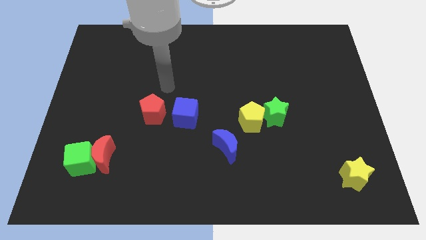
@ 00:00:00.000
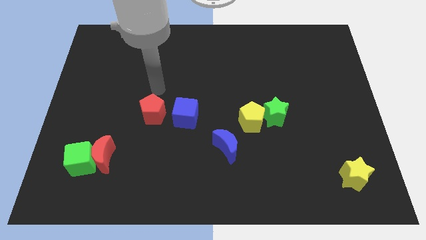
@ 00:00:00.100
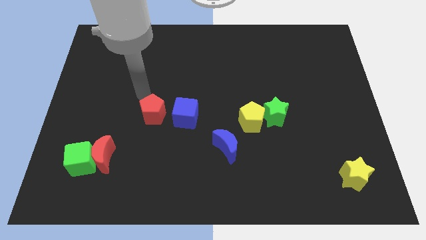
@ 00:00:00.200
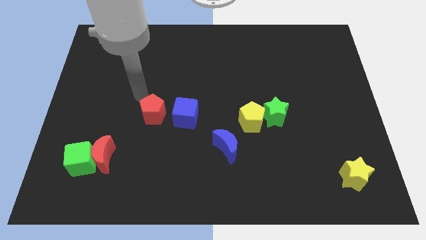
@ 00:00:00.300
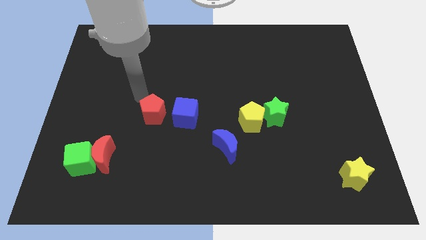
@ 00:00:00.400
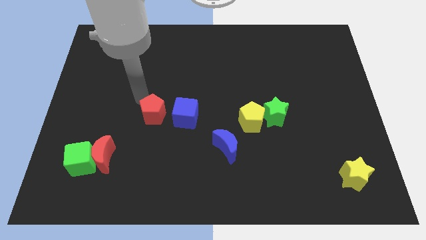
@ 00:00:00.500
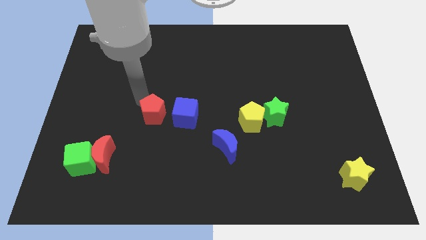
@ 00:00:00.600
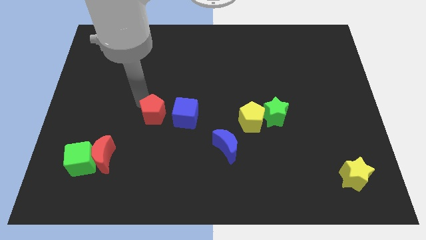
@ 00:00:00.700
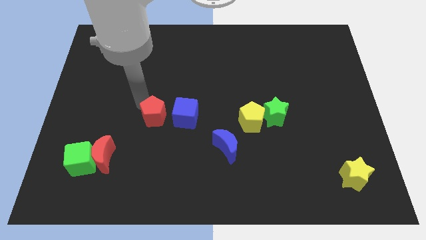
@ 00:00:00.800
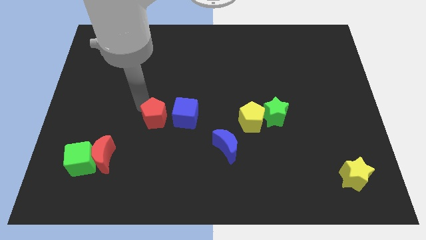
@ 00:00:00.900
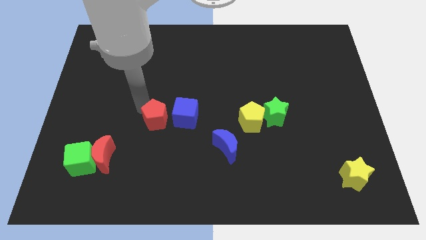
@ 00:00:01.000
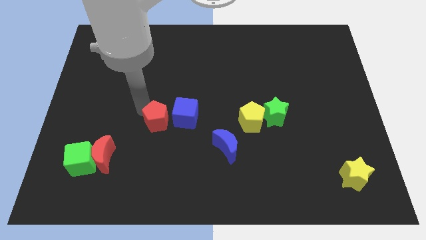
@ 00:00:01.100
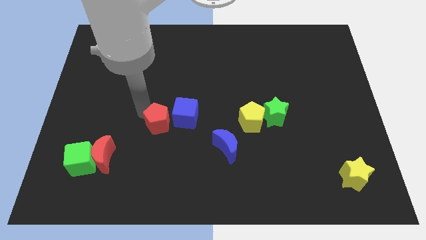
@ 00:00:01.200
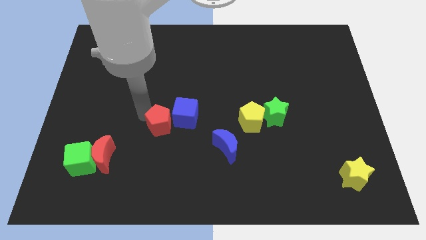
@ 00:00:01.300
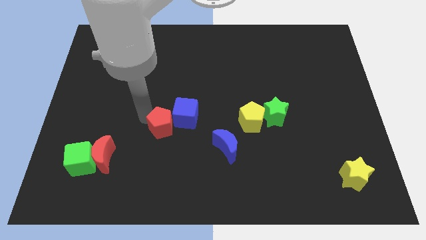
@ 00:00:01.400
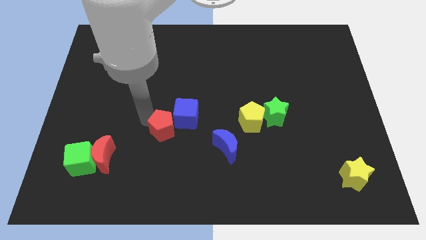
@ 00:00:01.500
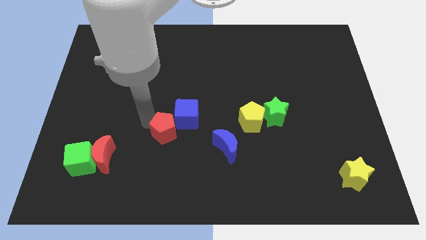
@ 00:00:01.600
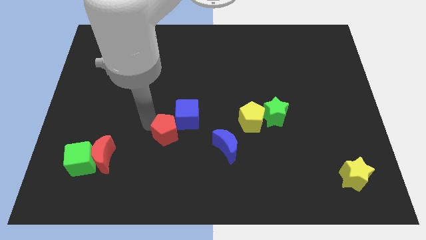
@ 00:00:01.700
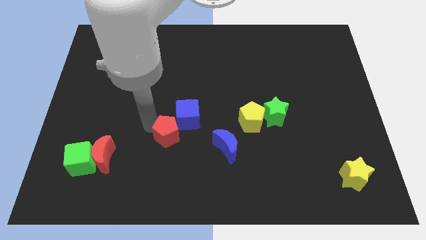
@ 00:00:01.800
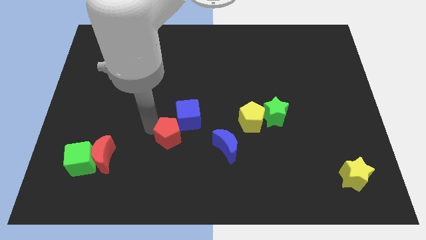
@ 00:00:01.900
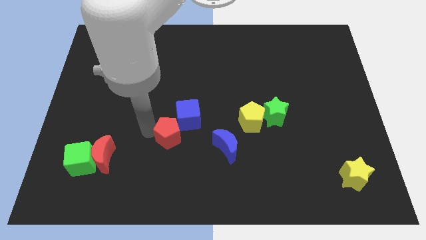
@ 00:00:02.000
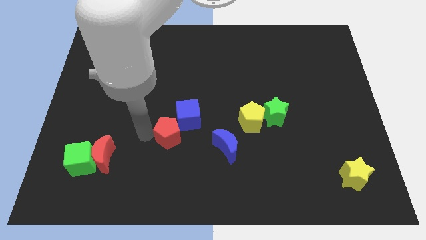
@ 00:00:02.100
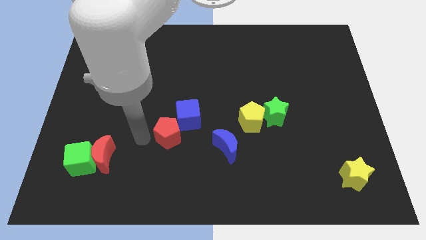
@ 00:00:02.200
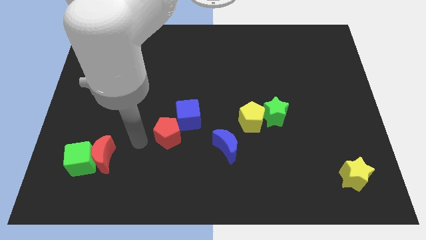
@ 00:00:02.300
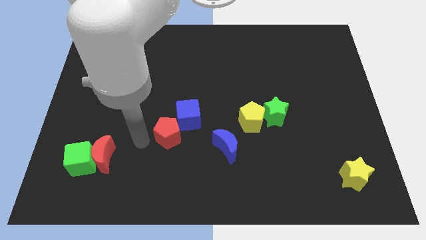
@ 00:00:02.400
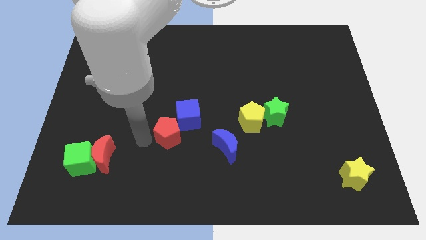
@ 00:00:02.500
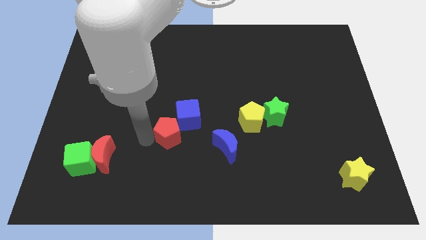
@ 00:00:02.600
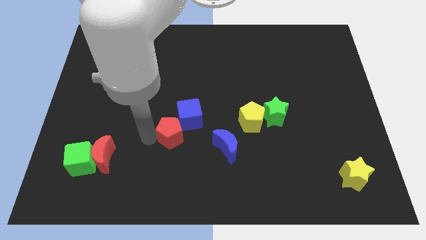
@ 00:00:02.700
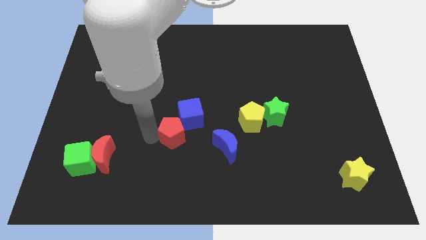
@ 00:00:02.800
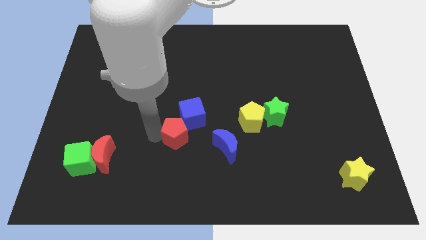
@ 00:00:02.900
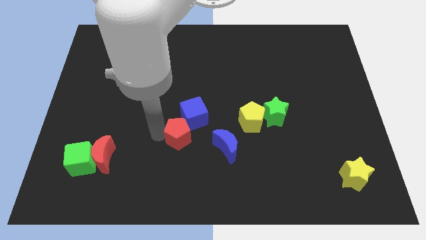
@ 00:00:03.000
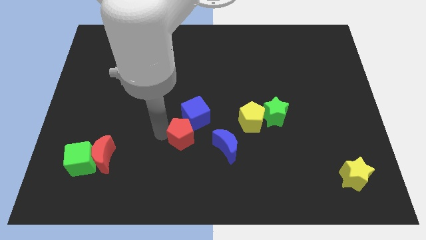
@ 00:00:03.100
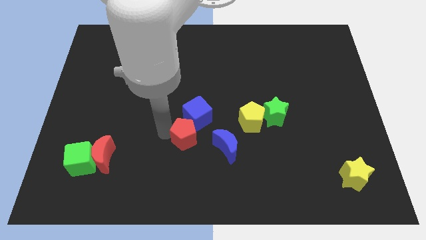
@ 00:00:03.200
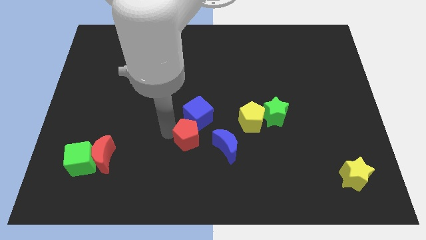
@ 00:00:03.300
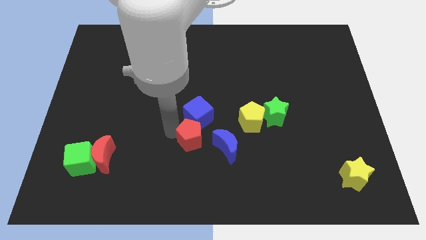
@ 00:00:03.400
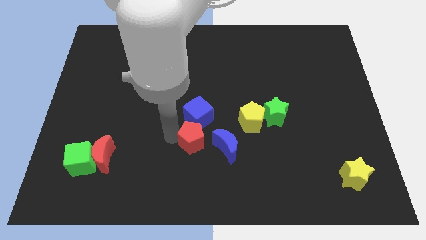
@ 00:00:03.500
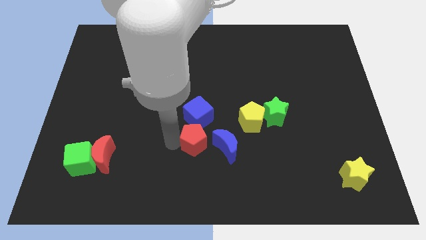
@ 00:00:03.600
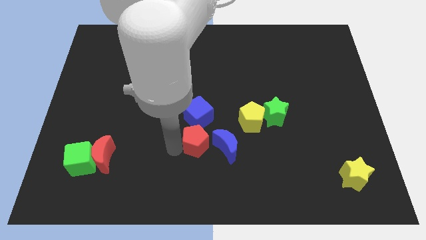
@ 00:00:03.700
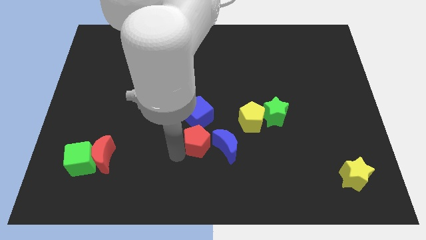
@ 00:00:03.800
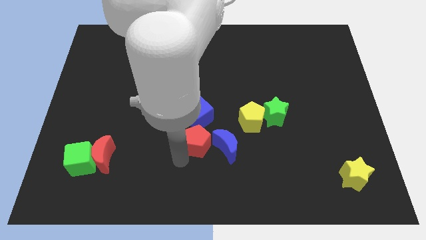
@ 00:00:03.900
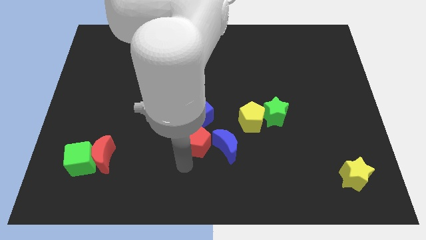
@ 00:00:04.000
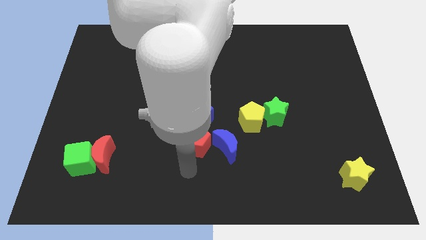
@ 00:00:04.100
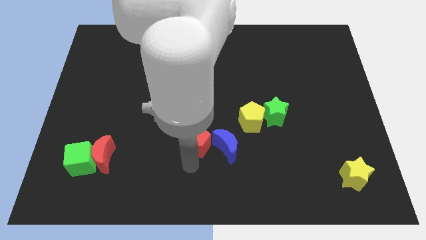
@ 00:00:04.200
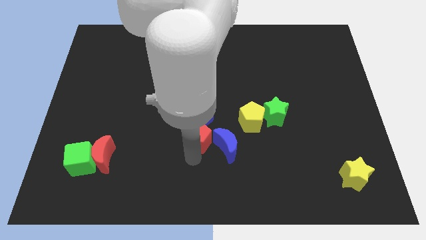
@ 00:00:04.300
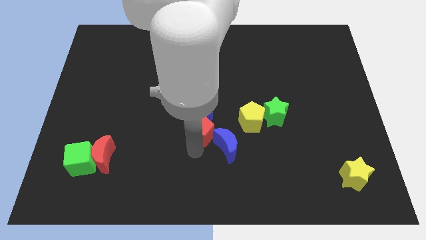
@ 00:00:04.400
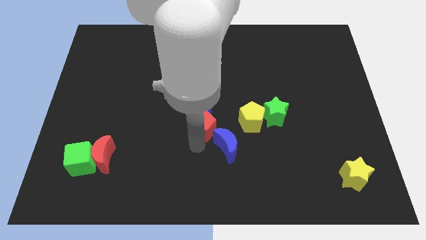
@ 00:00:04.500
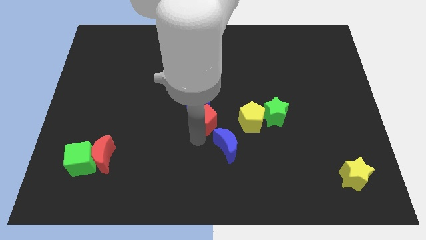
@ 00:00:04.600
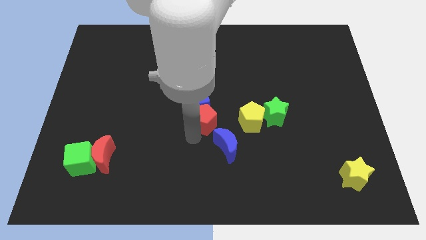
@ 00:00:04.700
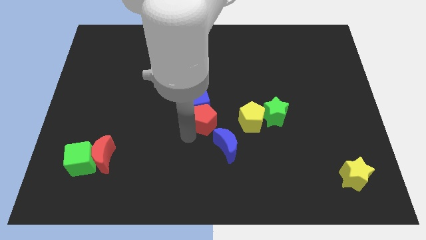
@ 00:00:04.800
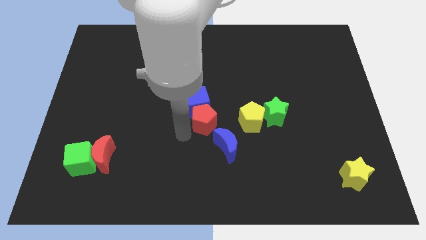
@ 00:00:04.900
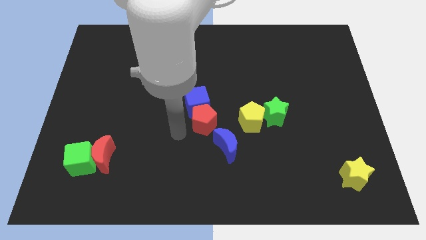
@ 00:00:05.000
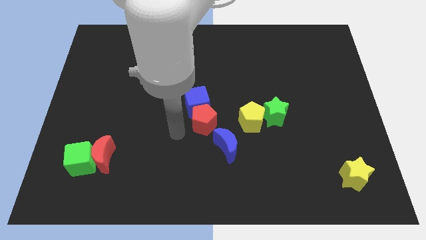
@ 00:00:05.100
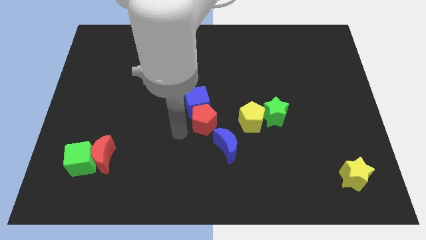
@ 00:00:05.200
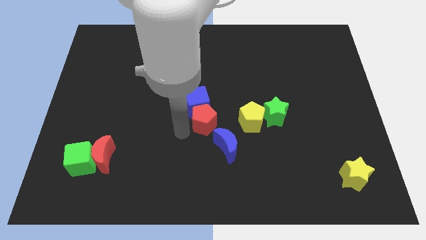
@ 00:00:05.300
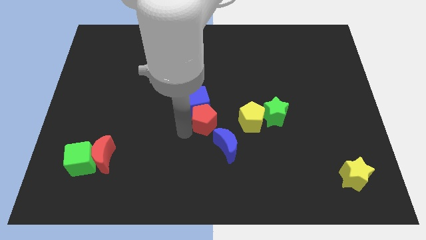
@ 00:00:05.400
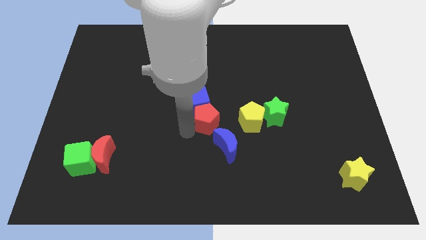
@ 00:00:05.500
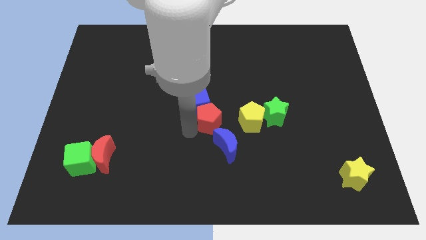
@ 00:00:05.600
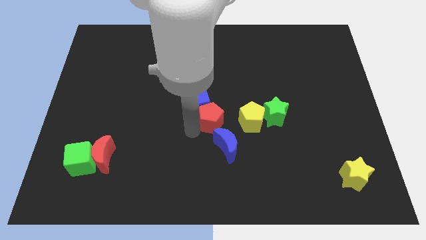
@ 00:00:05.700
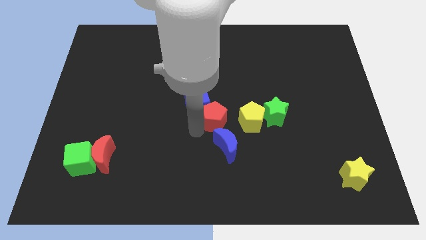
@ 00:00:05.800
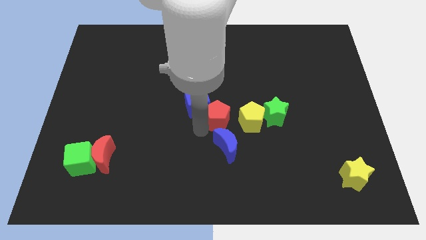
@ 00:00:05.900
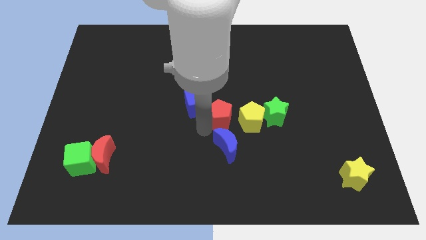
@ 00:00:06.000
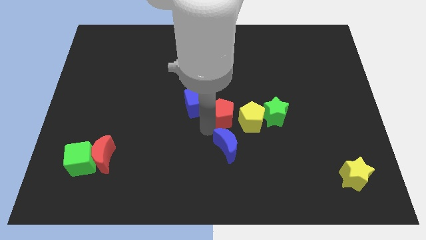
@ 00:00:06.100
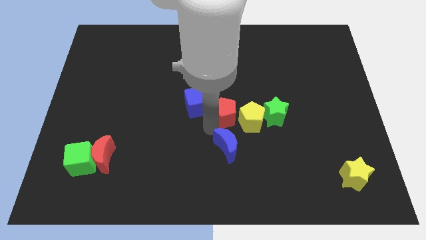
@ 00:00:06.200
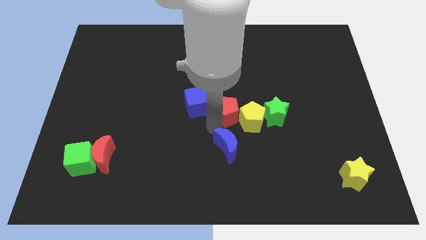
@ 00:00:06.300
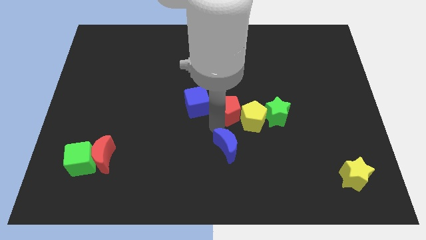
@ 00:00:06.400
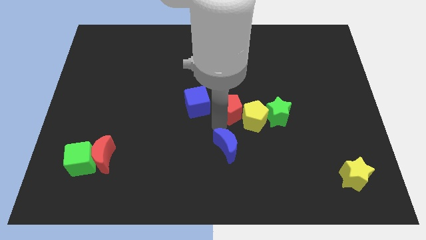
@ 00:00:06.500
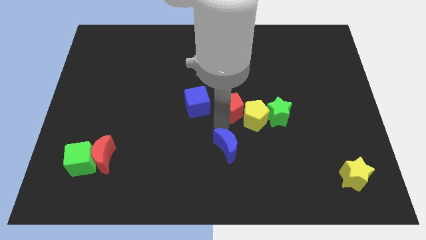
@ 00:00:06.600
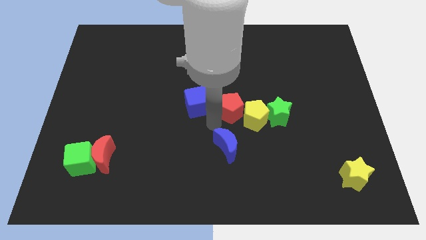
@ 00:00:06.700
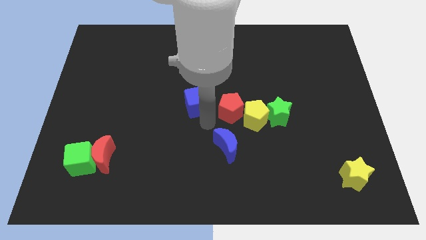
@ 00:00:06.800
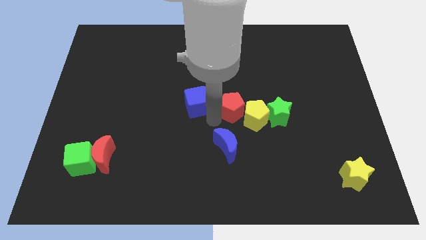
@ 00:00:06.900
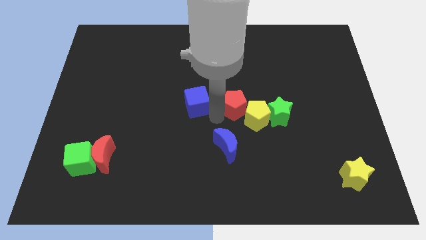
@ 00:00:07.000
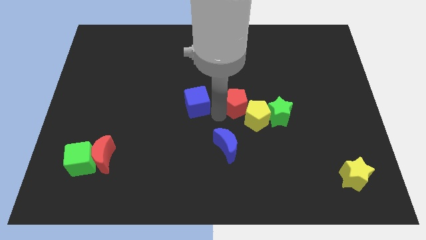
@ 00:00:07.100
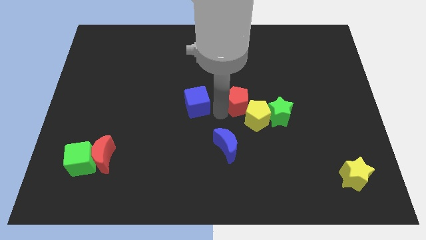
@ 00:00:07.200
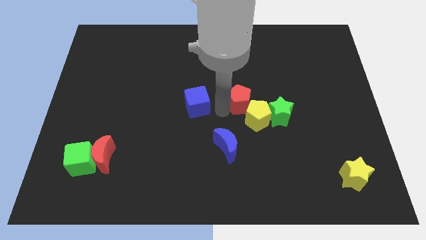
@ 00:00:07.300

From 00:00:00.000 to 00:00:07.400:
move the red pentagon to the right

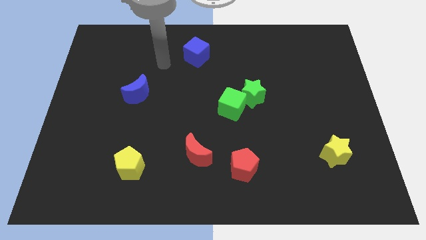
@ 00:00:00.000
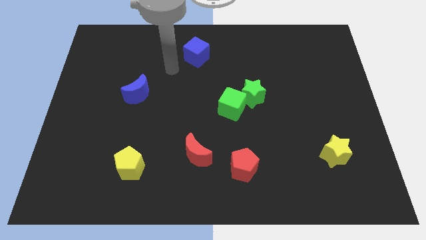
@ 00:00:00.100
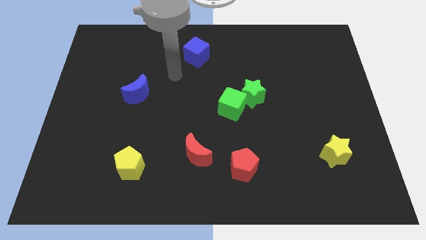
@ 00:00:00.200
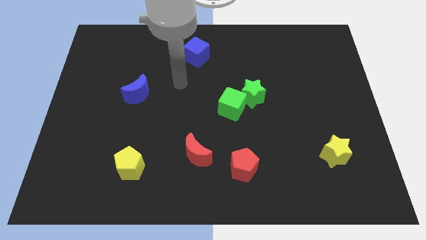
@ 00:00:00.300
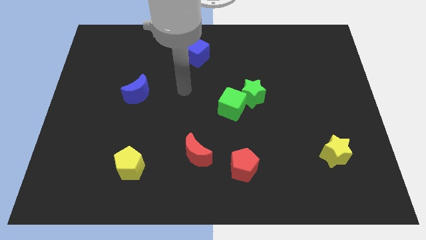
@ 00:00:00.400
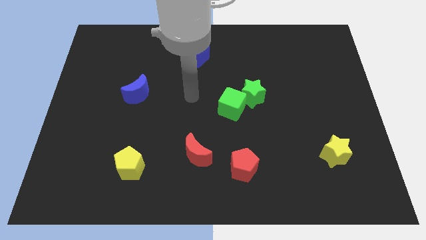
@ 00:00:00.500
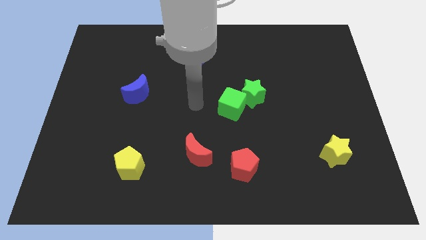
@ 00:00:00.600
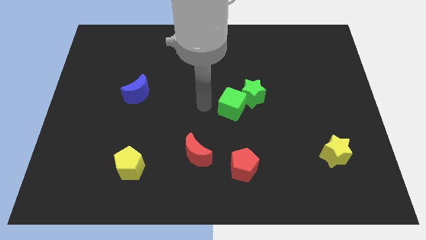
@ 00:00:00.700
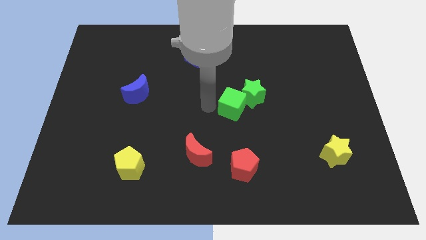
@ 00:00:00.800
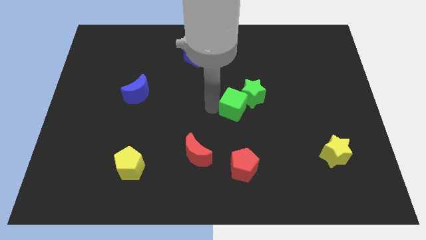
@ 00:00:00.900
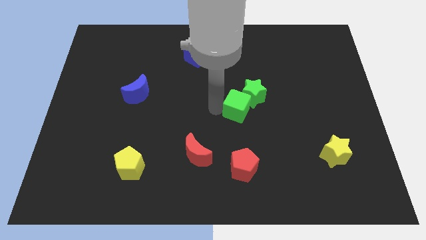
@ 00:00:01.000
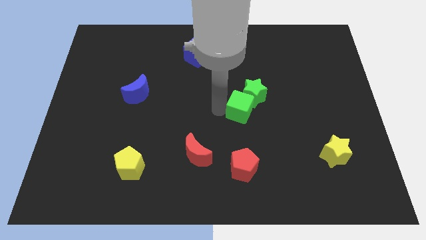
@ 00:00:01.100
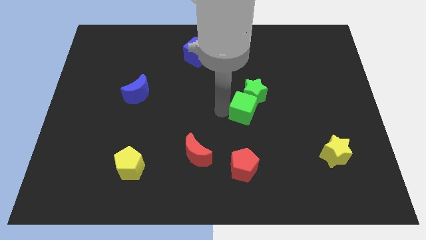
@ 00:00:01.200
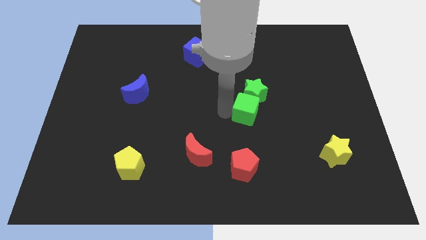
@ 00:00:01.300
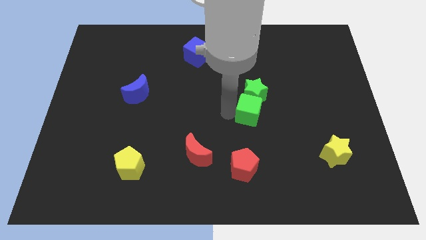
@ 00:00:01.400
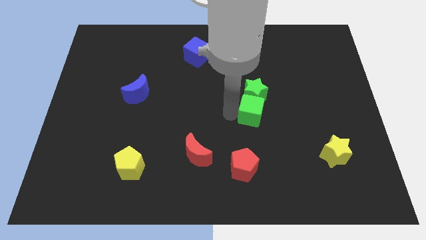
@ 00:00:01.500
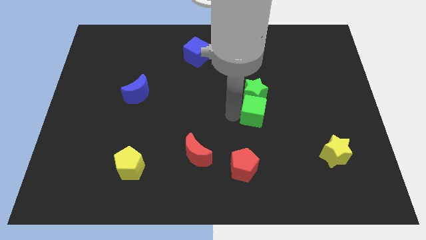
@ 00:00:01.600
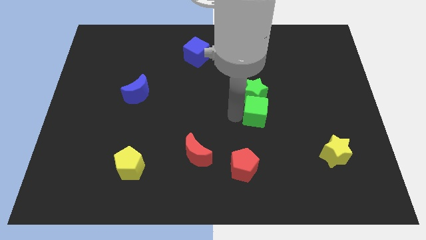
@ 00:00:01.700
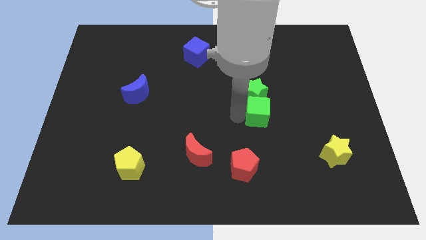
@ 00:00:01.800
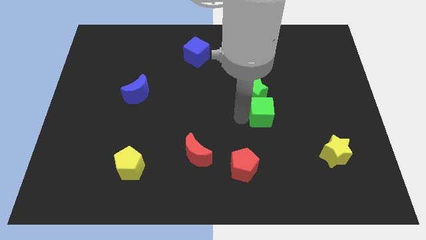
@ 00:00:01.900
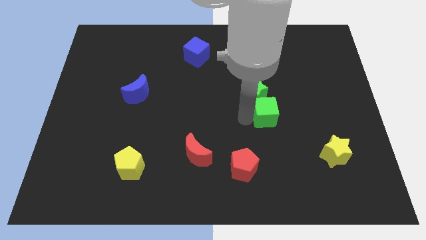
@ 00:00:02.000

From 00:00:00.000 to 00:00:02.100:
push the green cube a little bit to the right
